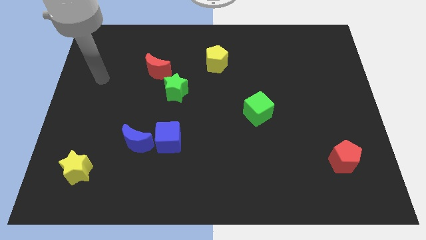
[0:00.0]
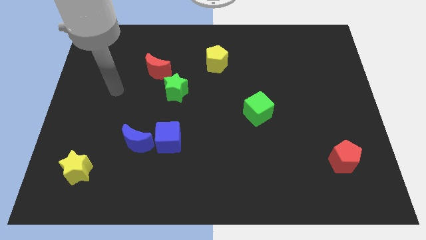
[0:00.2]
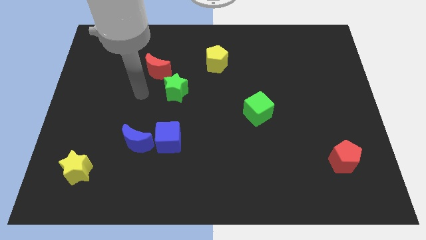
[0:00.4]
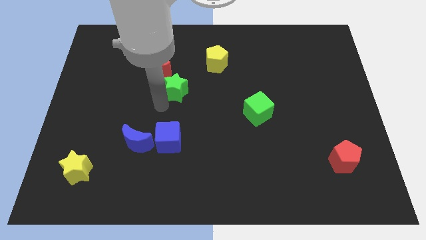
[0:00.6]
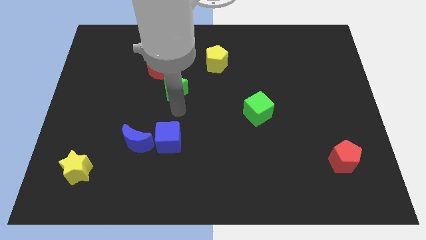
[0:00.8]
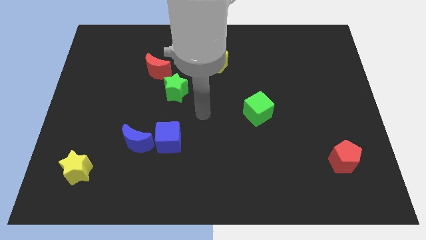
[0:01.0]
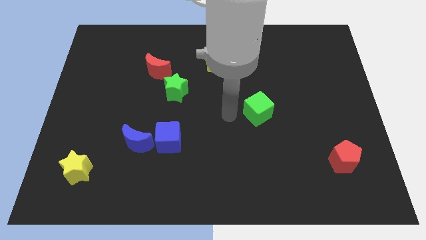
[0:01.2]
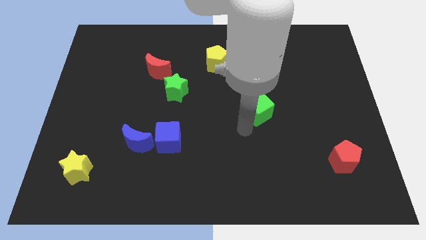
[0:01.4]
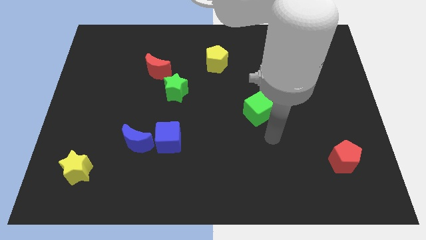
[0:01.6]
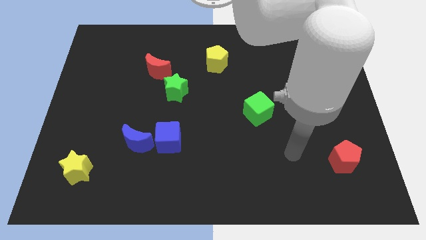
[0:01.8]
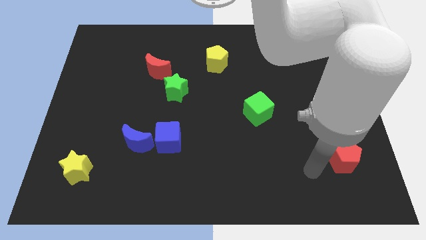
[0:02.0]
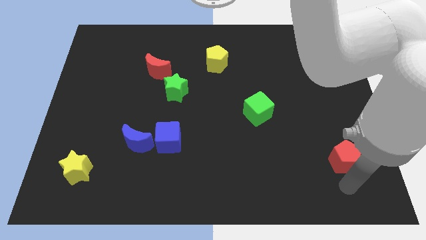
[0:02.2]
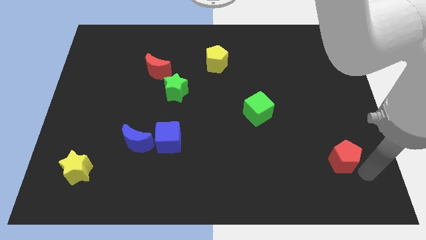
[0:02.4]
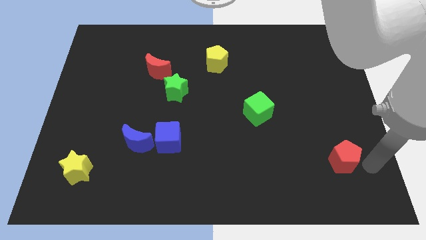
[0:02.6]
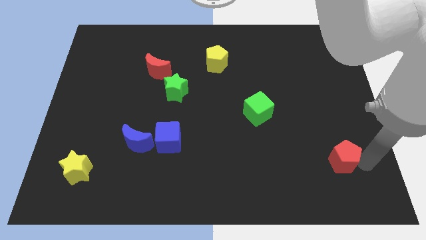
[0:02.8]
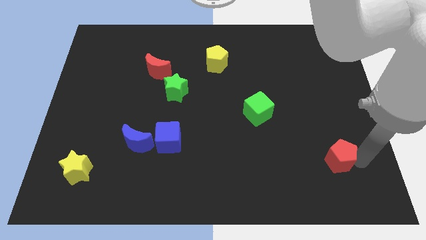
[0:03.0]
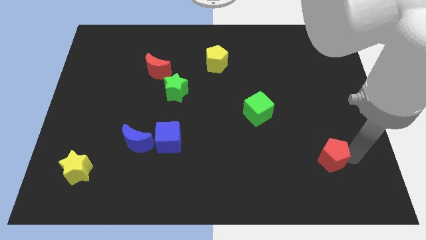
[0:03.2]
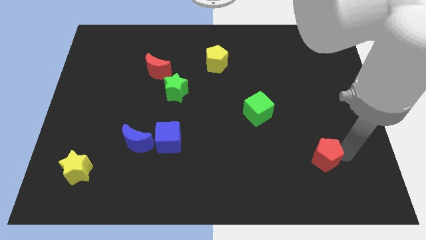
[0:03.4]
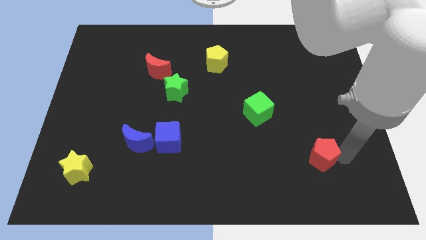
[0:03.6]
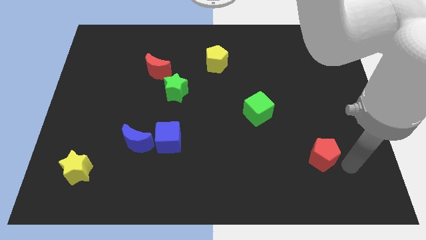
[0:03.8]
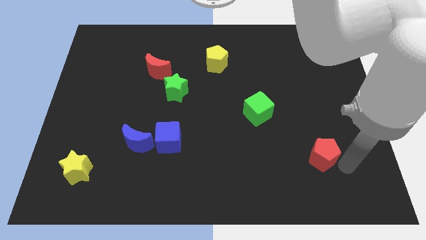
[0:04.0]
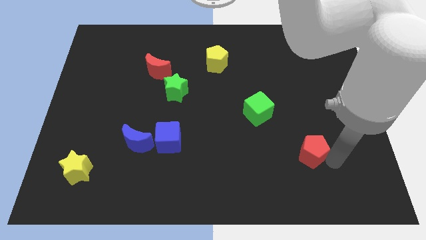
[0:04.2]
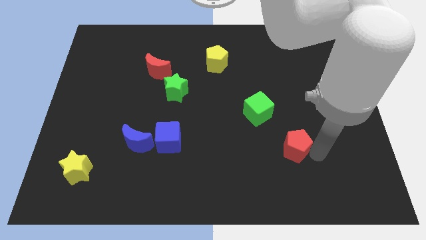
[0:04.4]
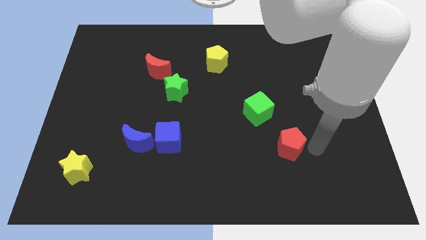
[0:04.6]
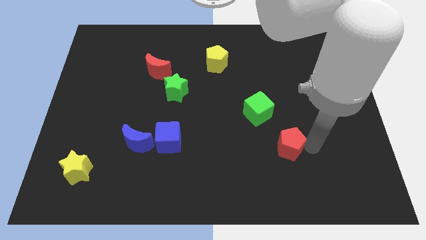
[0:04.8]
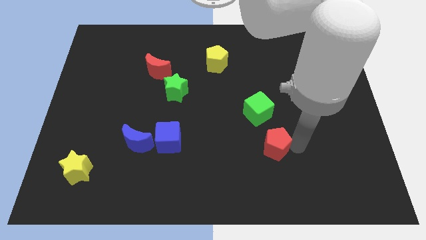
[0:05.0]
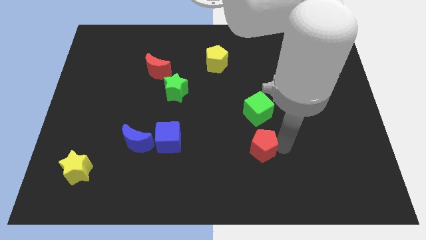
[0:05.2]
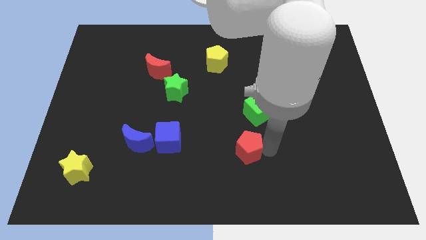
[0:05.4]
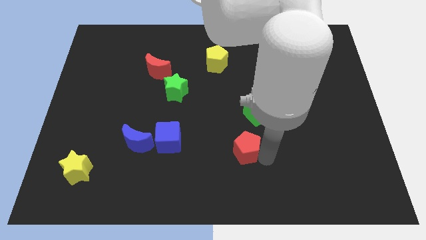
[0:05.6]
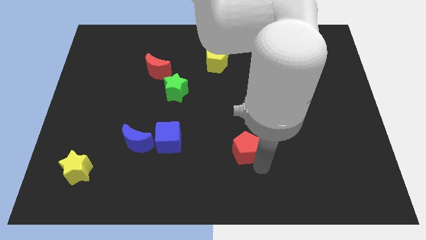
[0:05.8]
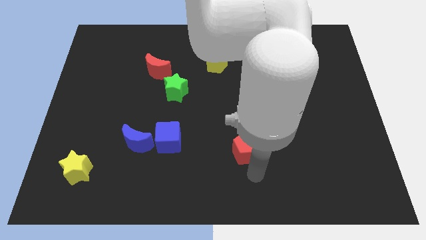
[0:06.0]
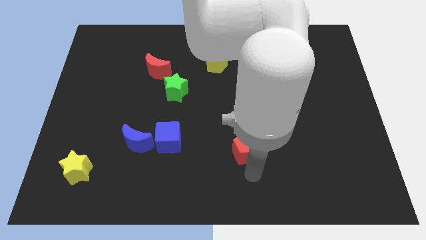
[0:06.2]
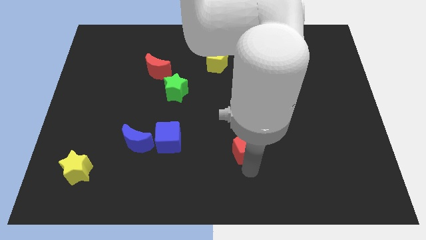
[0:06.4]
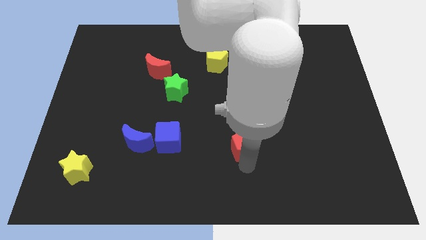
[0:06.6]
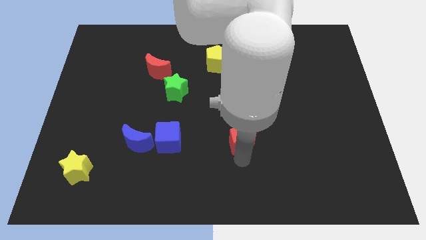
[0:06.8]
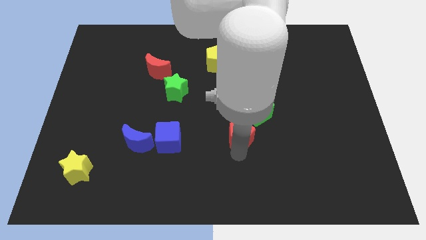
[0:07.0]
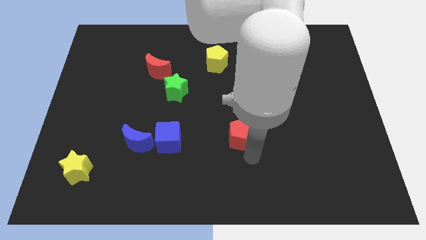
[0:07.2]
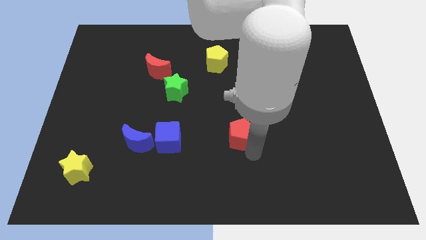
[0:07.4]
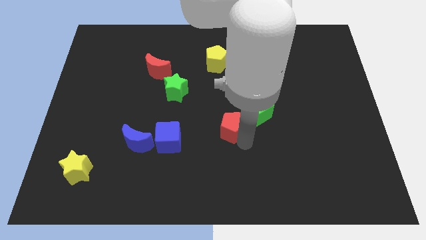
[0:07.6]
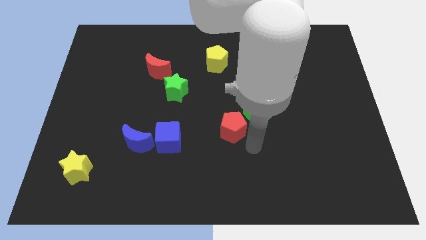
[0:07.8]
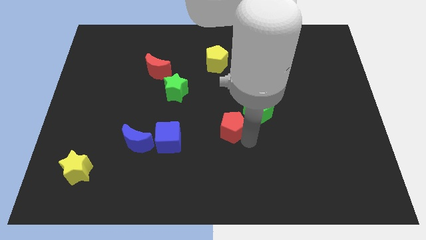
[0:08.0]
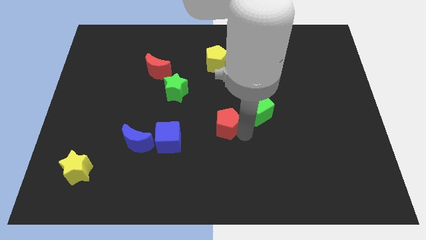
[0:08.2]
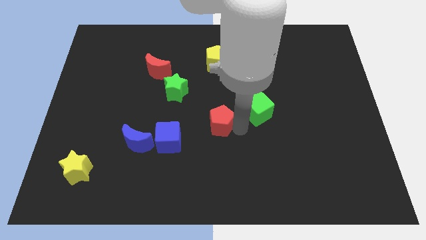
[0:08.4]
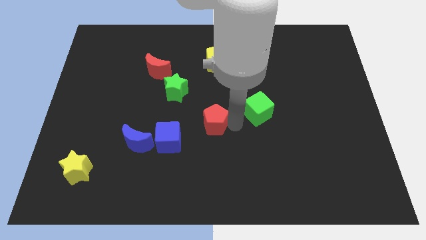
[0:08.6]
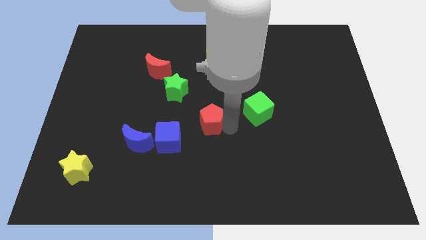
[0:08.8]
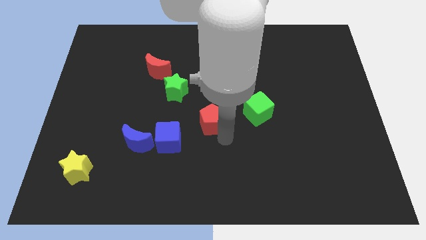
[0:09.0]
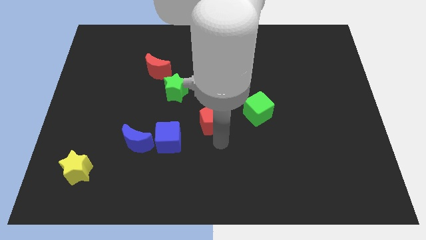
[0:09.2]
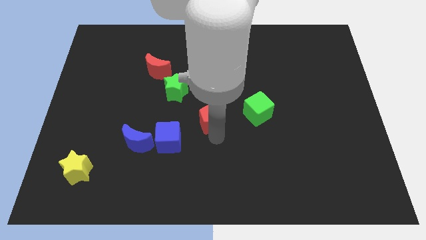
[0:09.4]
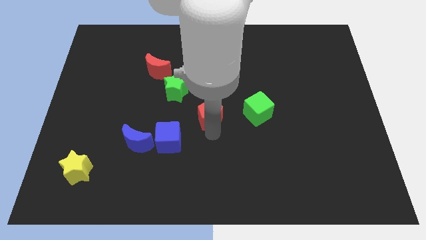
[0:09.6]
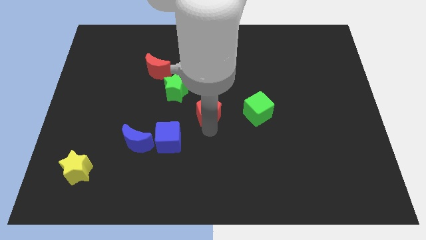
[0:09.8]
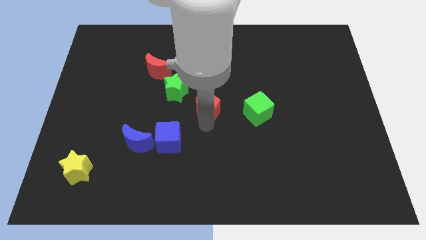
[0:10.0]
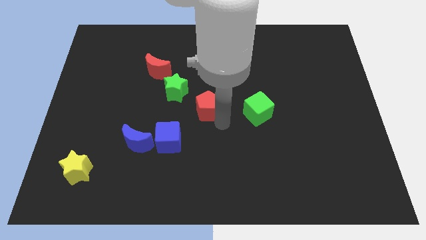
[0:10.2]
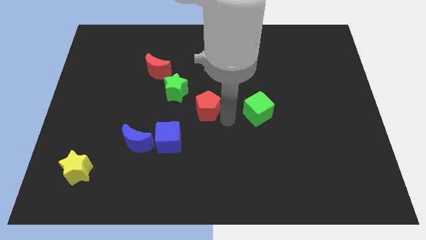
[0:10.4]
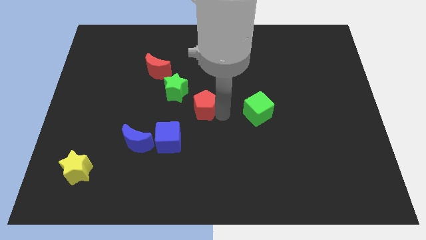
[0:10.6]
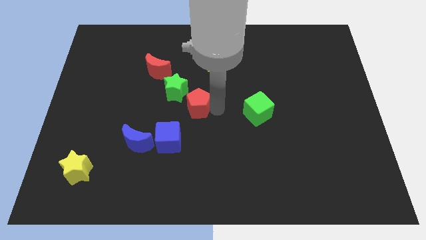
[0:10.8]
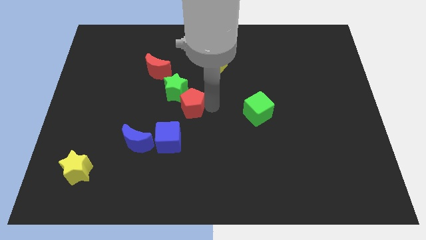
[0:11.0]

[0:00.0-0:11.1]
slide the red pentagon towards the green star

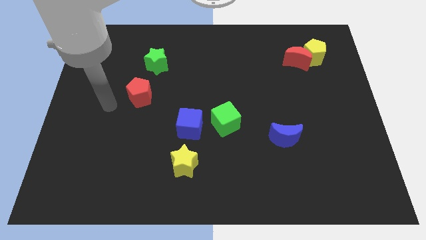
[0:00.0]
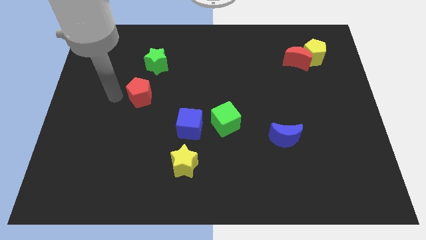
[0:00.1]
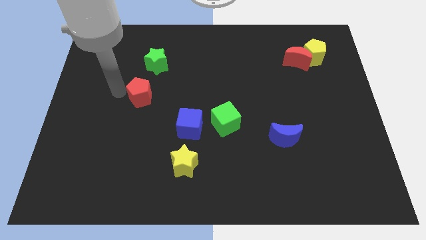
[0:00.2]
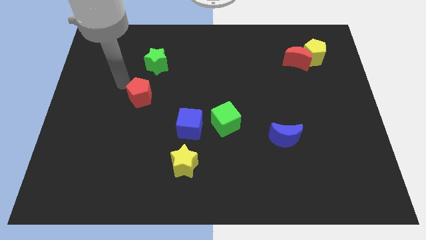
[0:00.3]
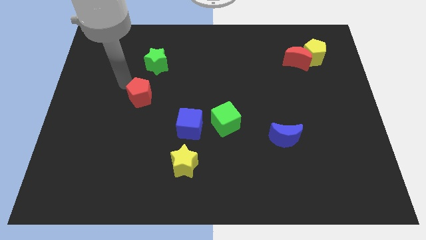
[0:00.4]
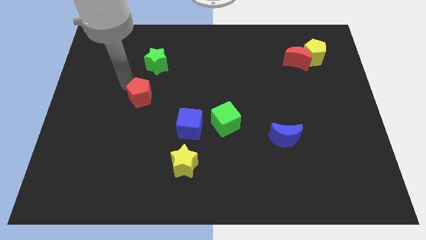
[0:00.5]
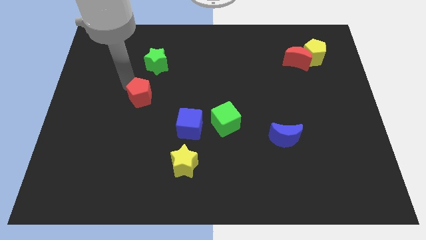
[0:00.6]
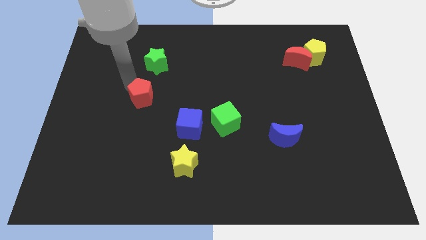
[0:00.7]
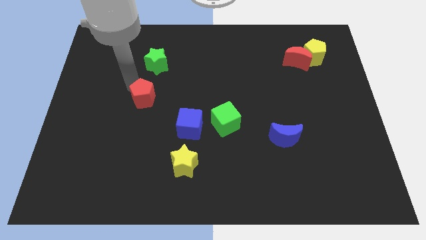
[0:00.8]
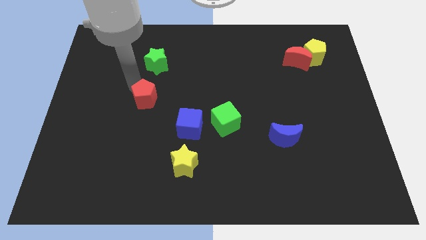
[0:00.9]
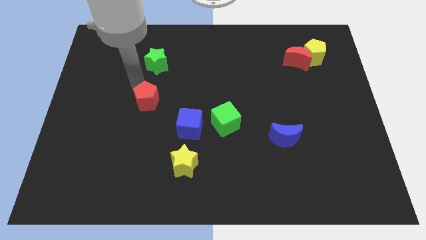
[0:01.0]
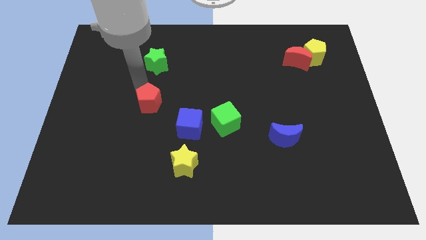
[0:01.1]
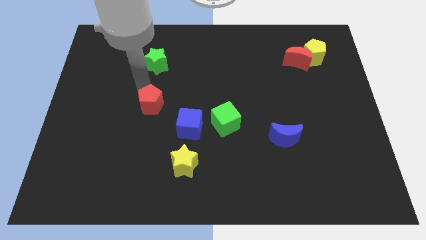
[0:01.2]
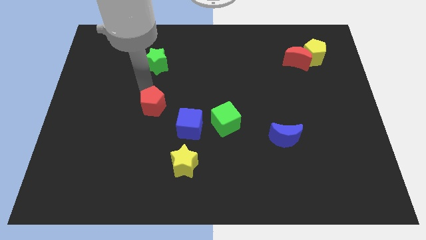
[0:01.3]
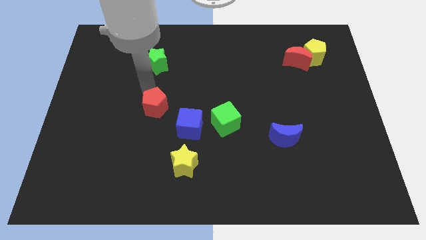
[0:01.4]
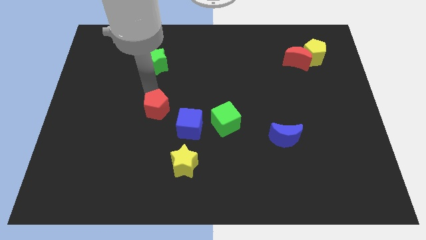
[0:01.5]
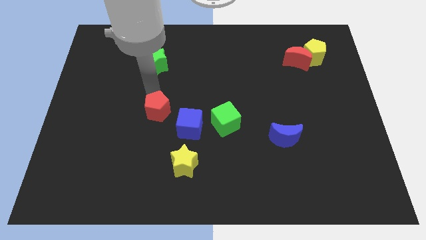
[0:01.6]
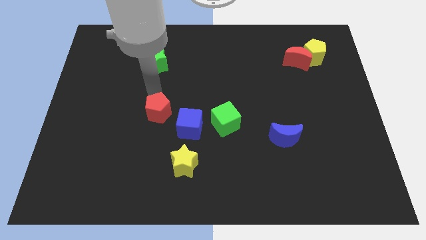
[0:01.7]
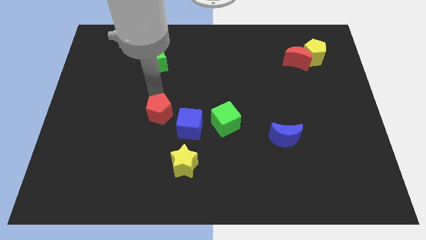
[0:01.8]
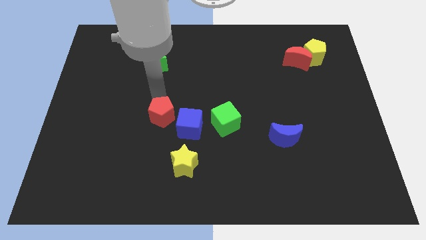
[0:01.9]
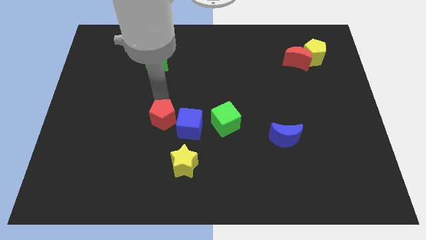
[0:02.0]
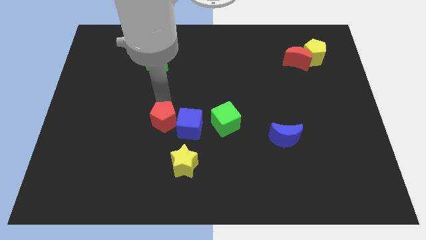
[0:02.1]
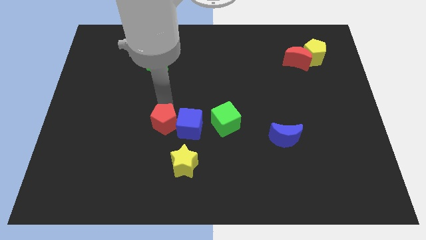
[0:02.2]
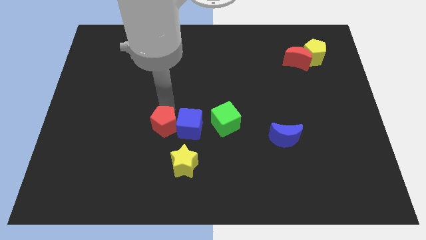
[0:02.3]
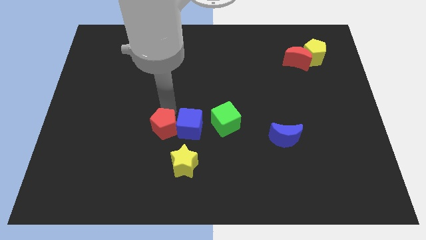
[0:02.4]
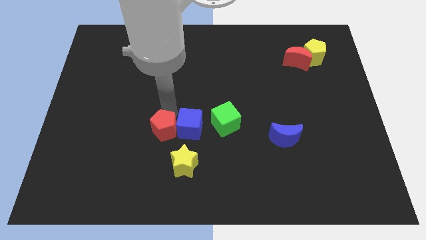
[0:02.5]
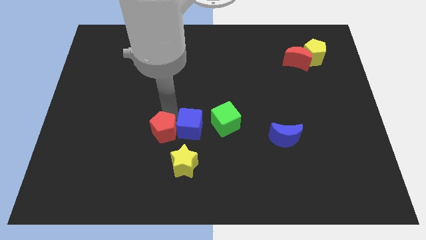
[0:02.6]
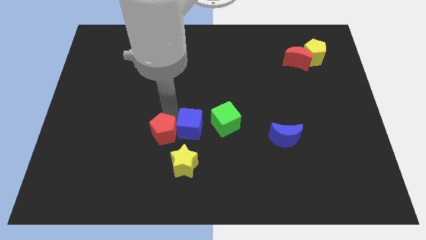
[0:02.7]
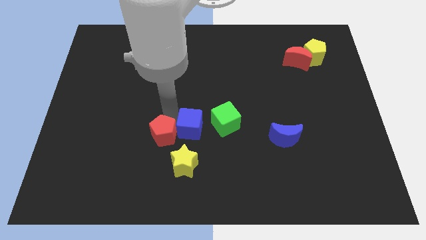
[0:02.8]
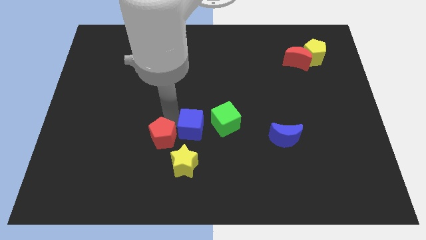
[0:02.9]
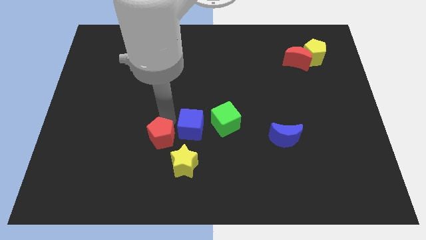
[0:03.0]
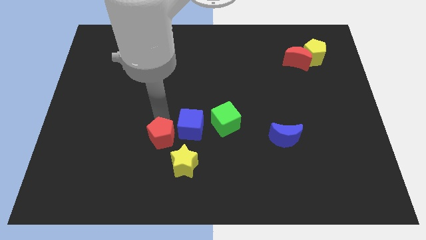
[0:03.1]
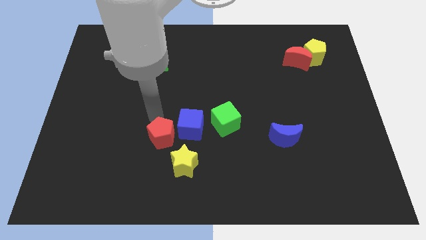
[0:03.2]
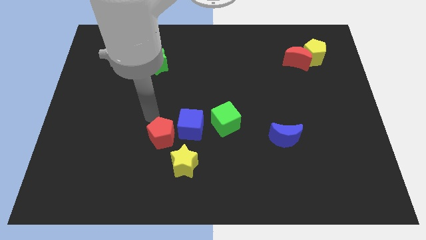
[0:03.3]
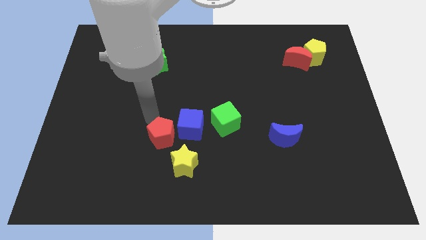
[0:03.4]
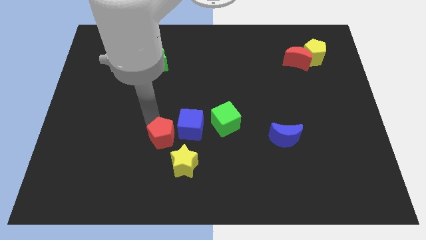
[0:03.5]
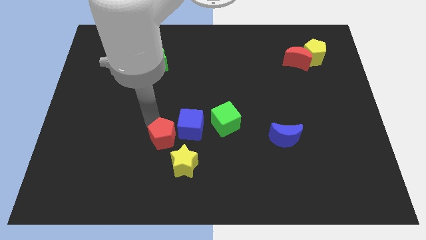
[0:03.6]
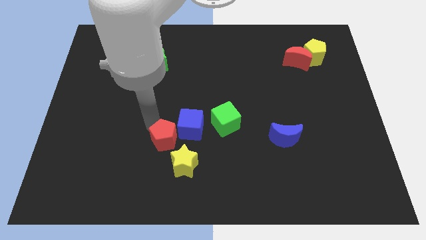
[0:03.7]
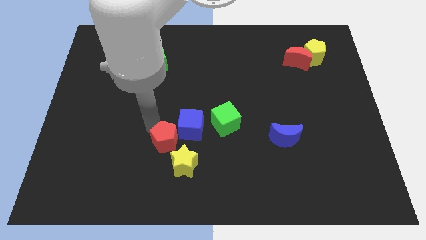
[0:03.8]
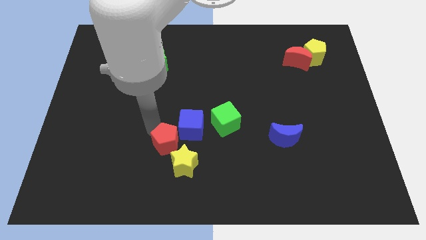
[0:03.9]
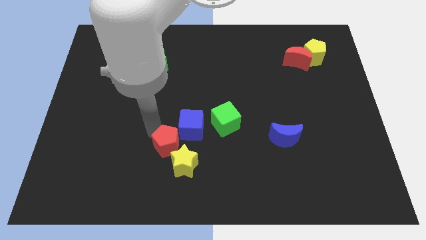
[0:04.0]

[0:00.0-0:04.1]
slide the red pentagon towards the yellow star
